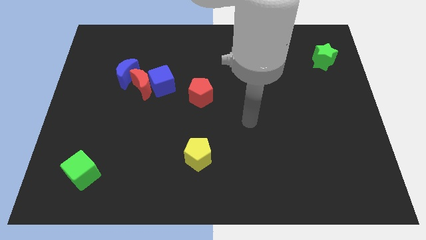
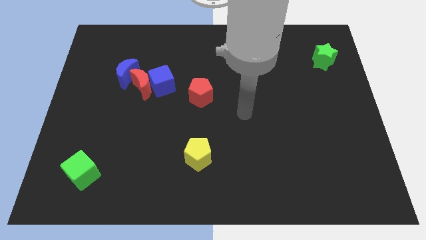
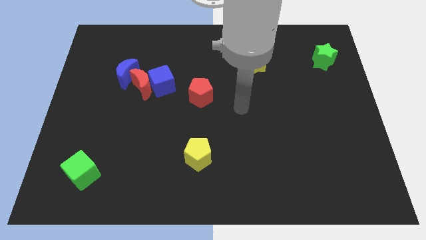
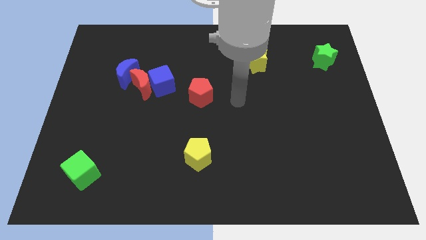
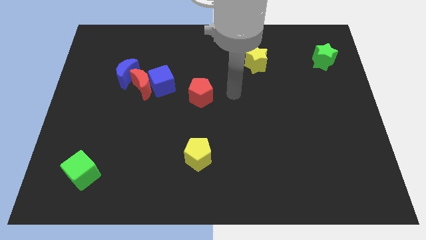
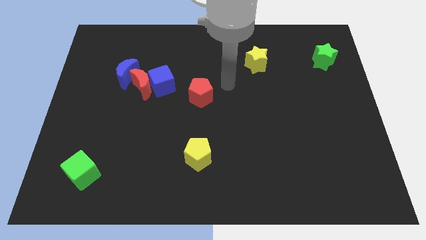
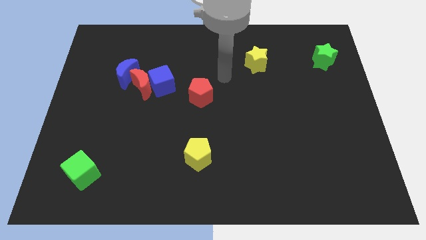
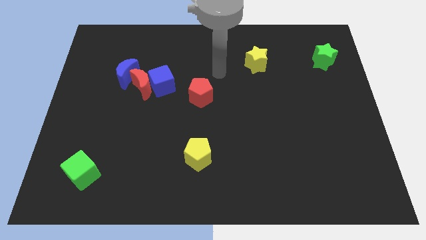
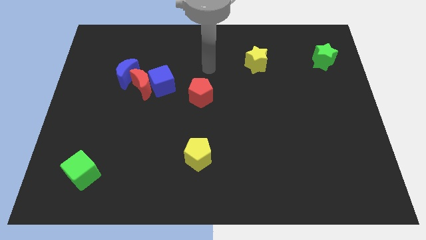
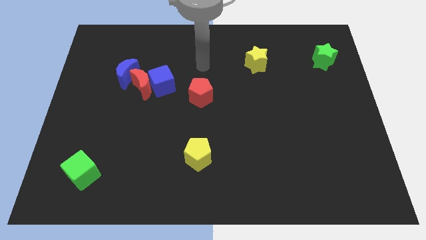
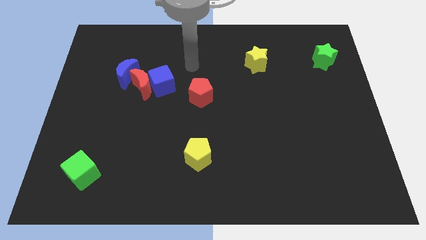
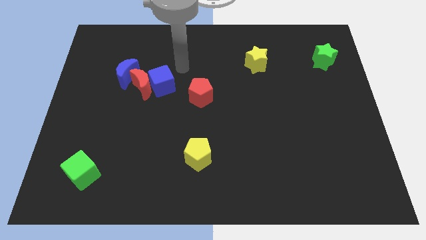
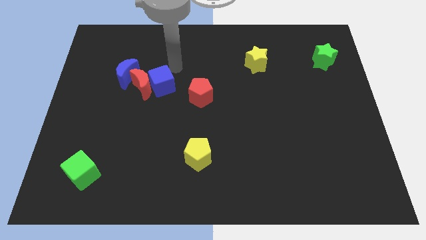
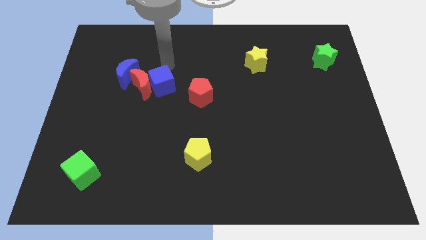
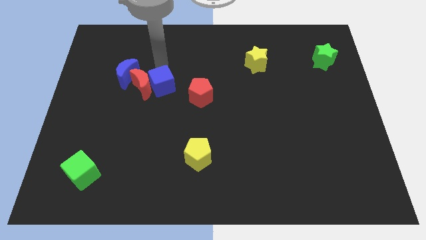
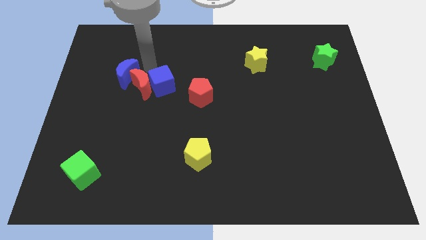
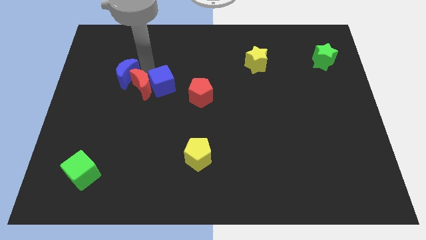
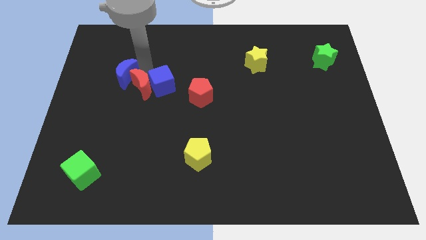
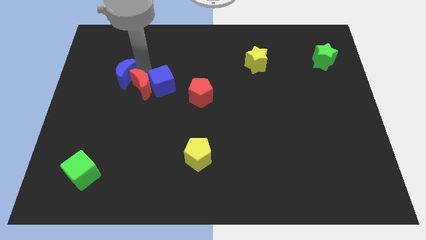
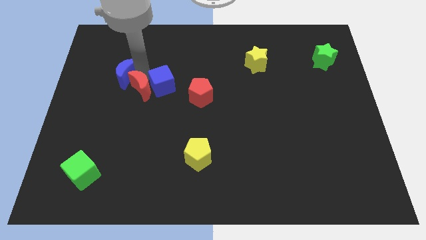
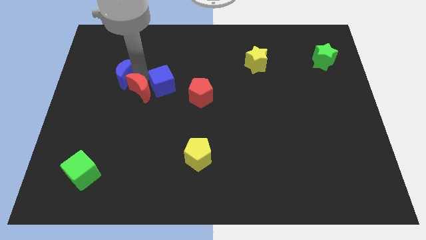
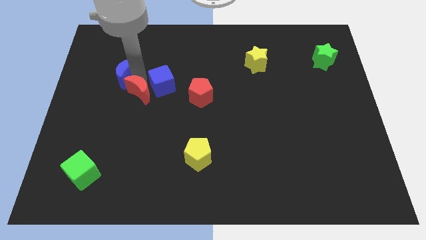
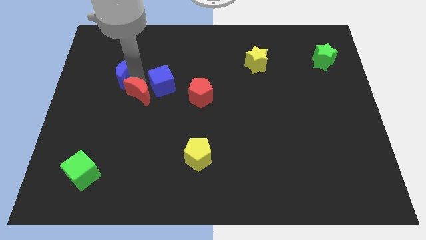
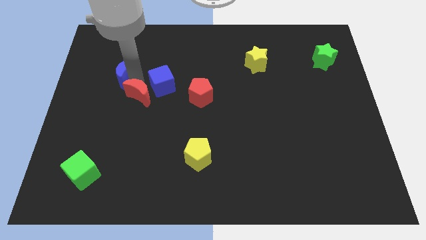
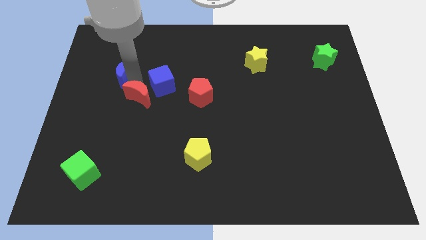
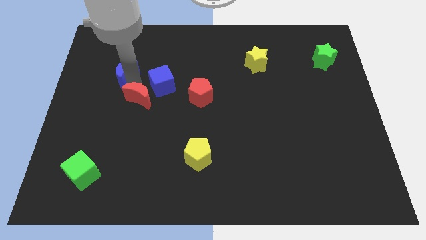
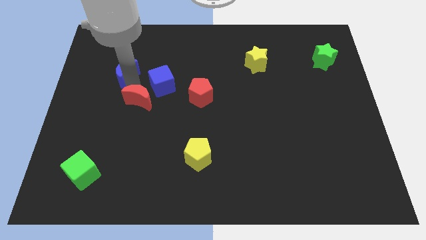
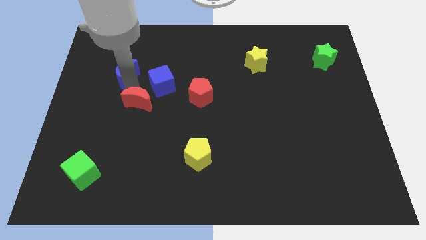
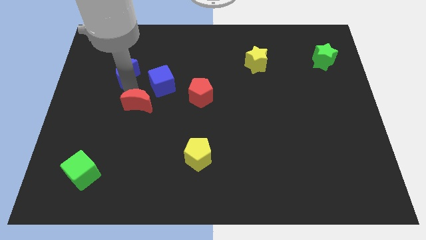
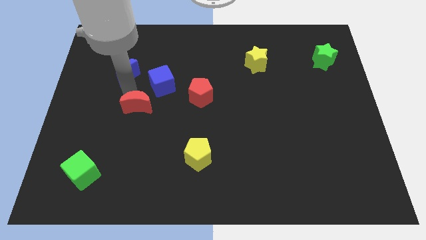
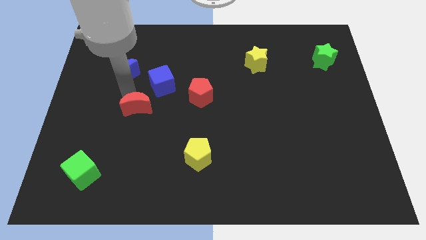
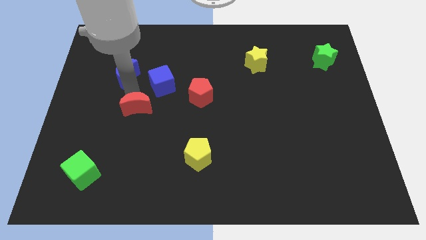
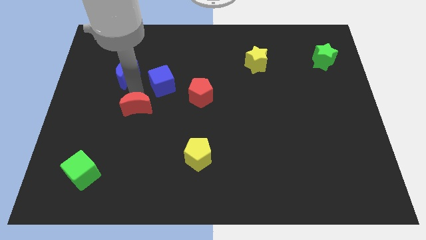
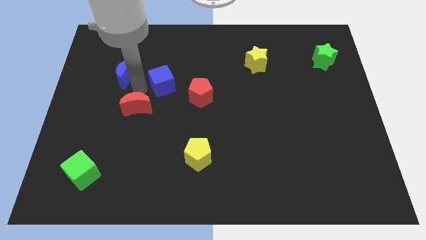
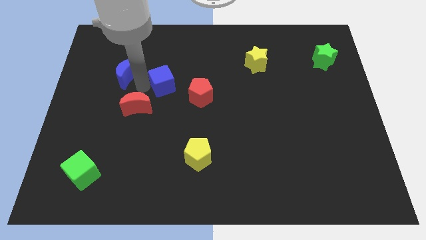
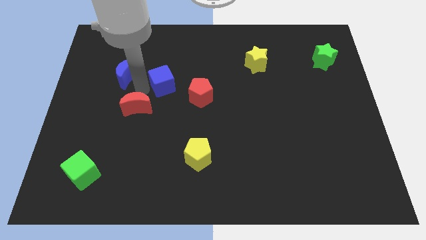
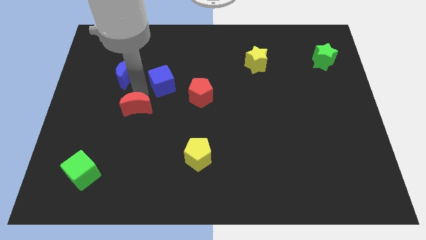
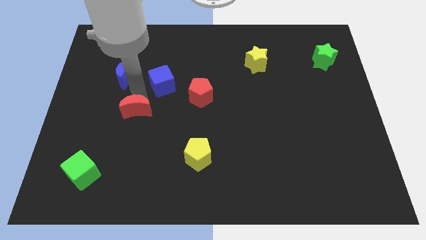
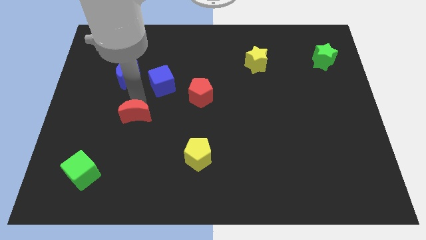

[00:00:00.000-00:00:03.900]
separate the red moon from the blue cube and blue moon

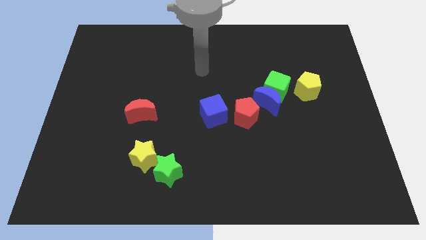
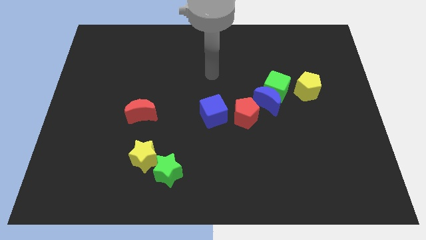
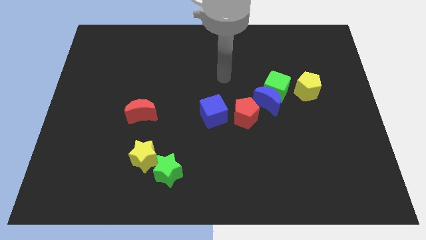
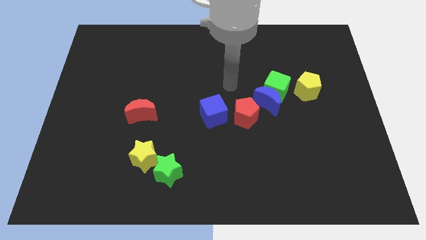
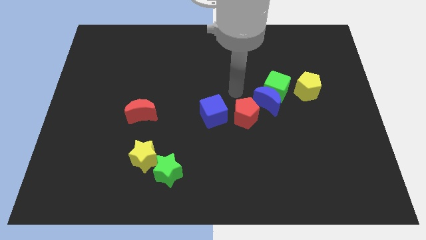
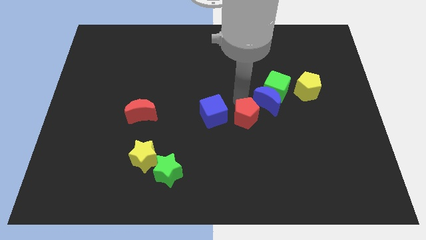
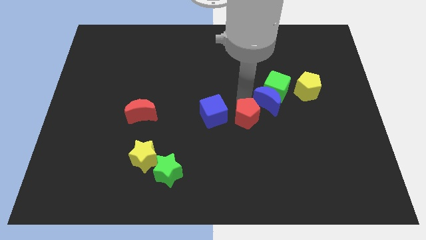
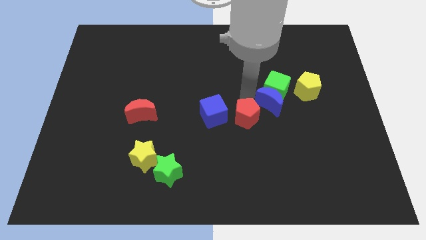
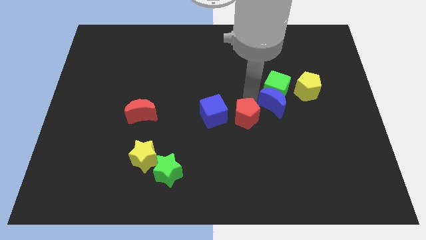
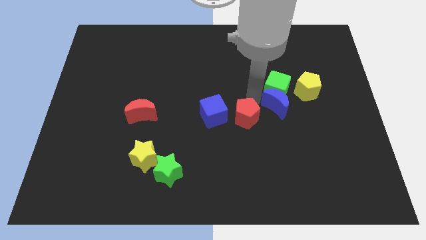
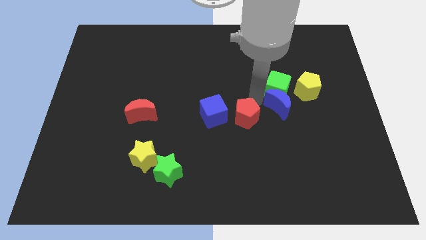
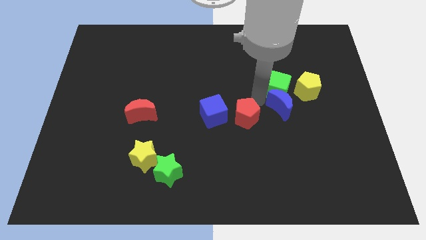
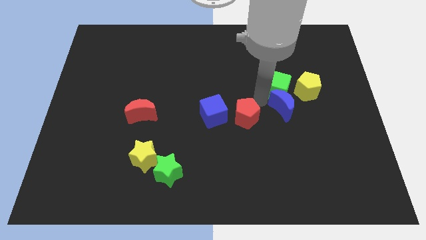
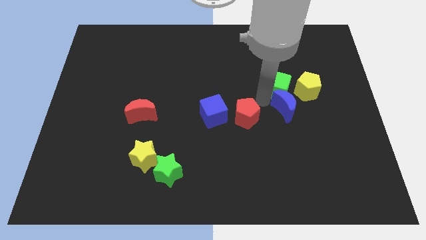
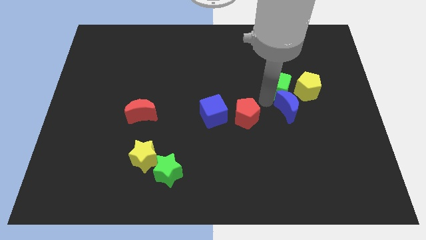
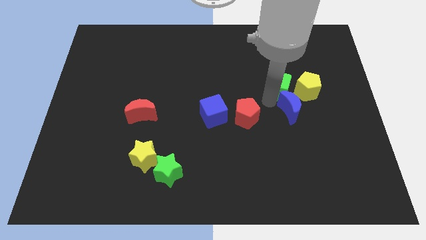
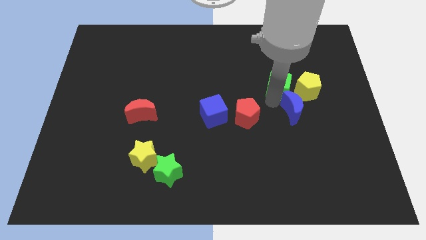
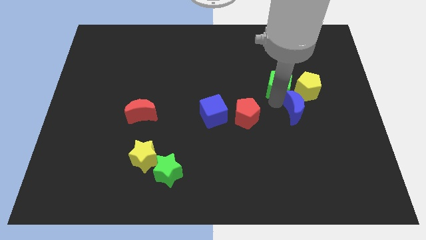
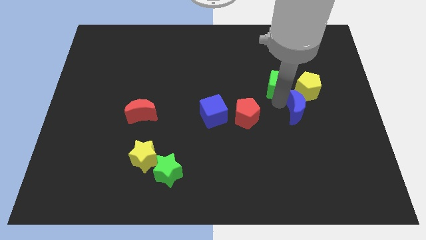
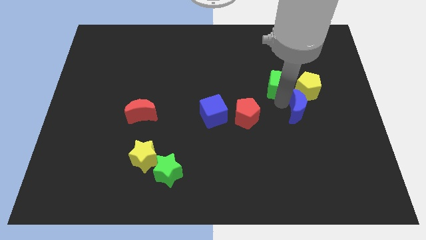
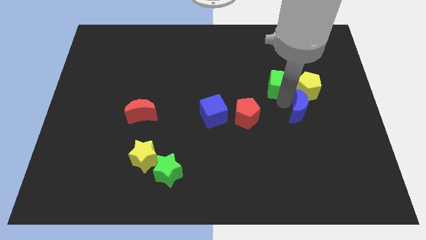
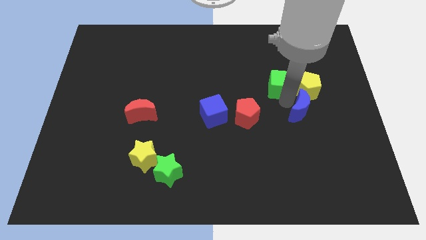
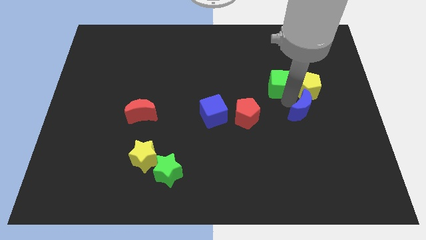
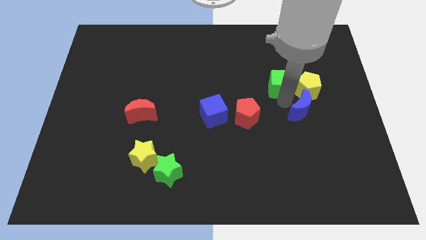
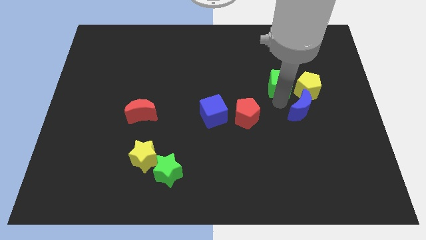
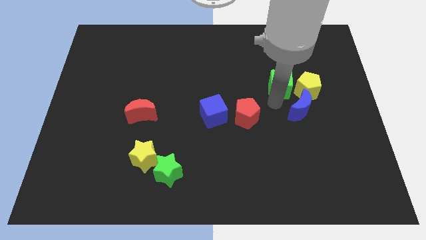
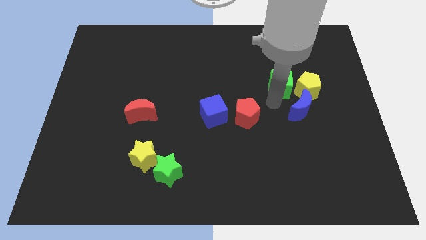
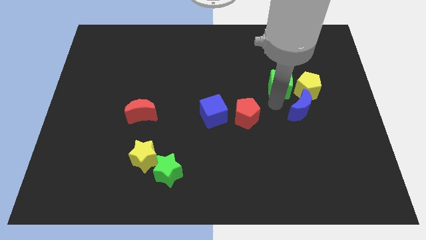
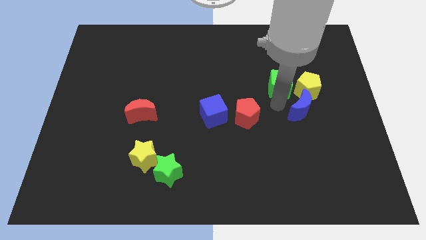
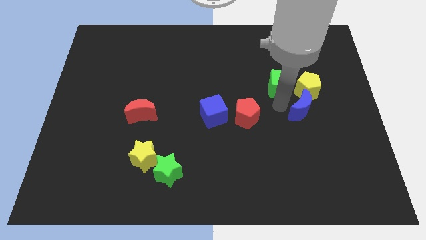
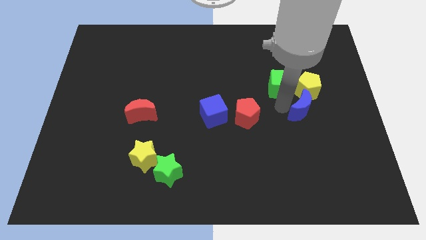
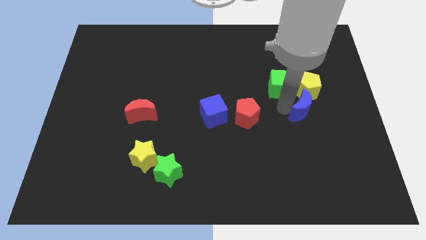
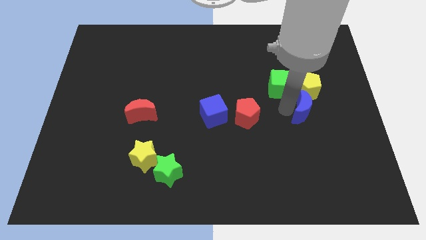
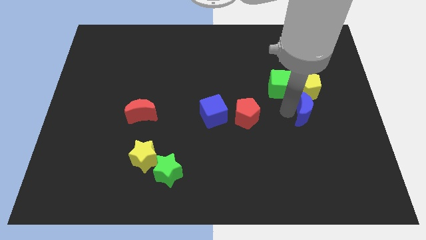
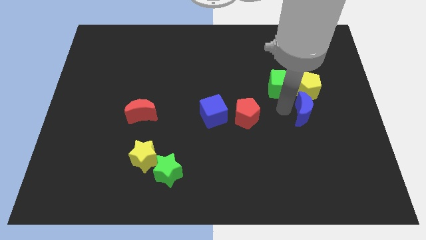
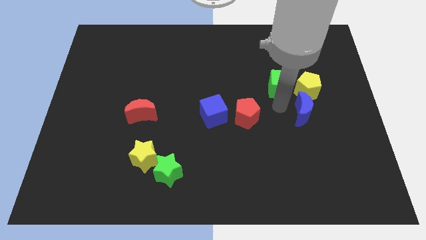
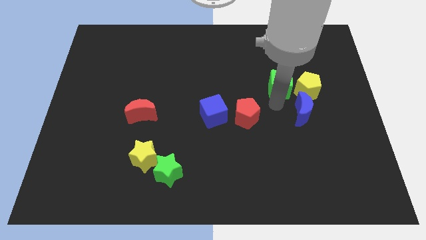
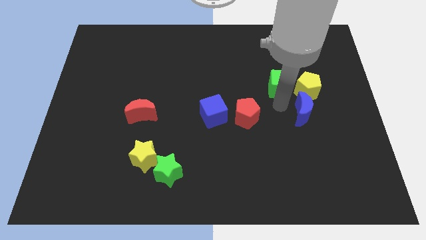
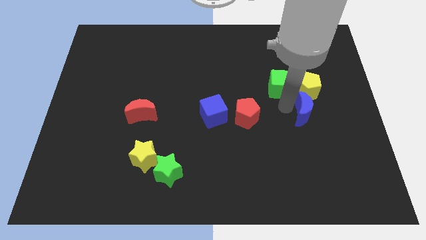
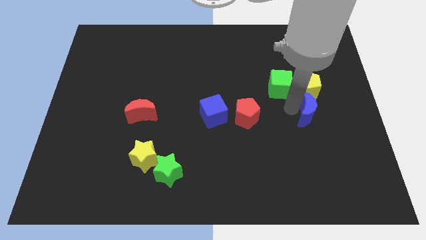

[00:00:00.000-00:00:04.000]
pull the blue moon apart from the green cube and red pentagon

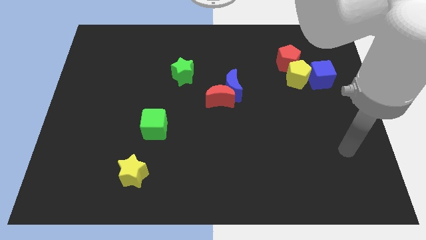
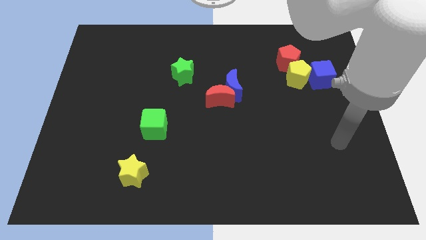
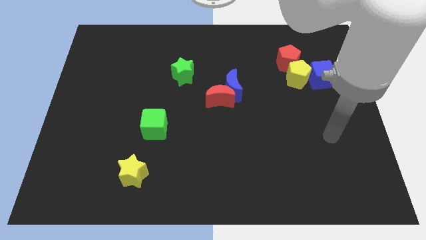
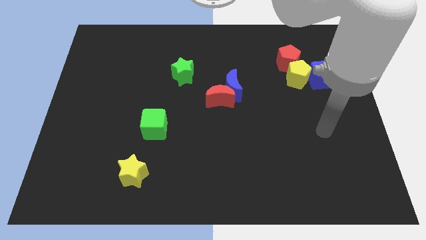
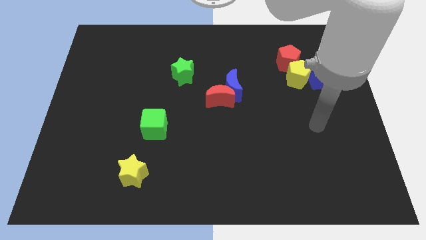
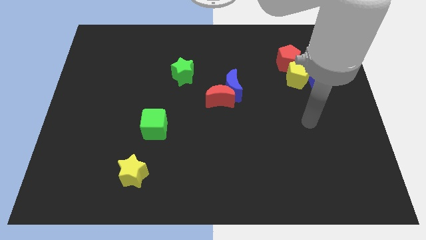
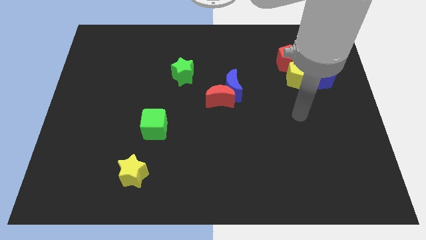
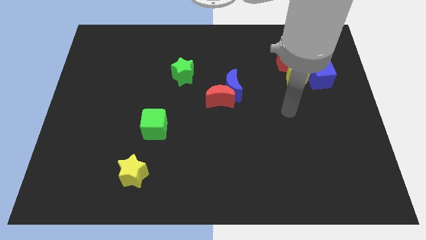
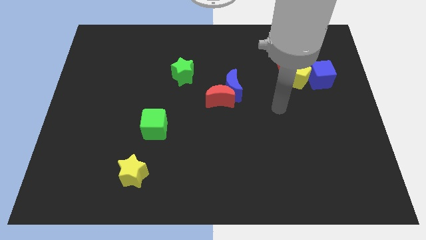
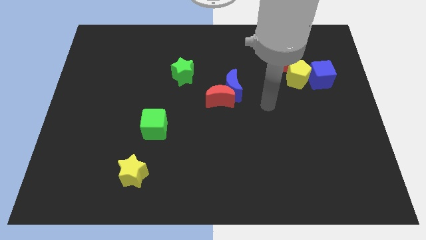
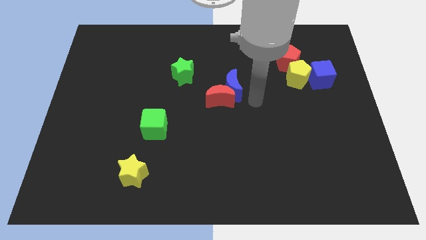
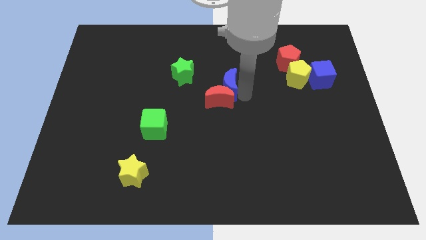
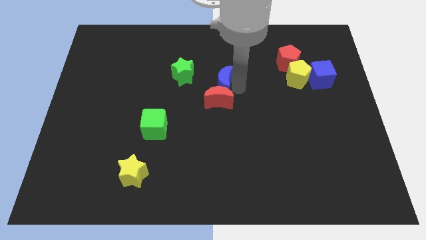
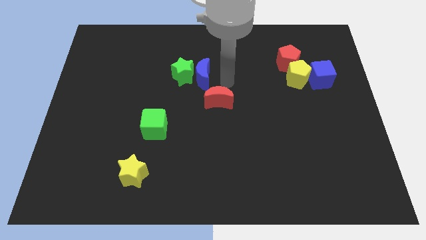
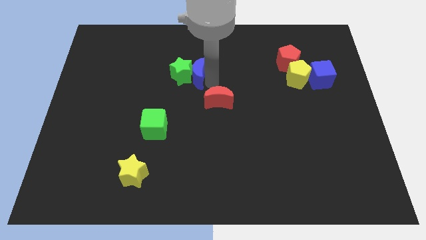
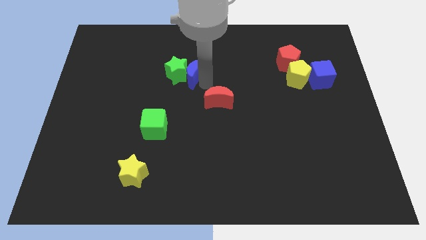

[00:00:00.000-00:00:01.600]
pull the red moon apart from the blue moon
